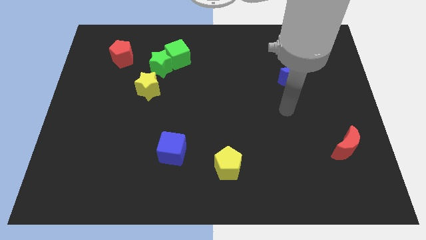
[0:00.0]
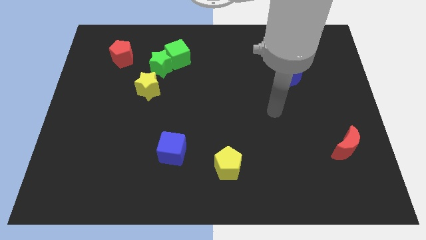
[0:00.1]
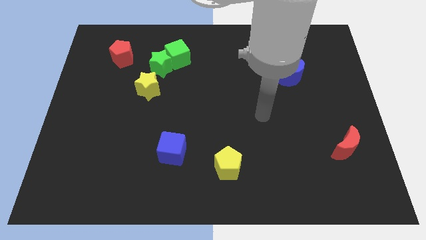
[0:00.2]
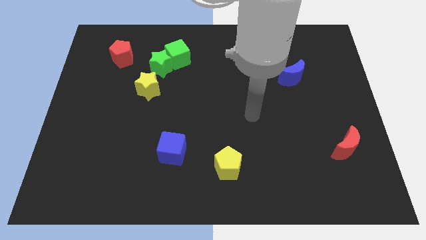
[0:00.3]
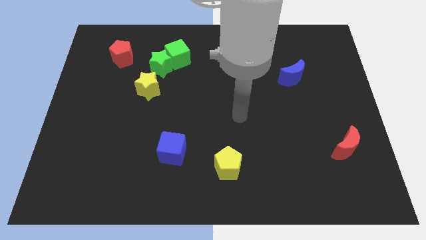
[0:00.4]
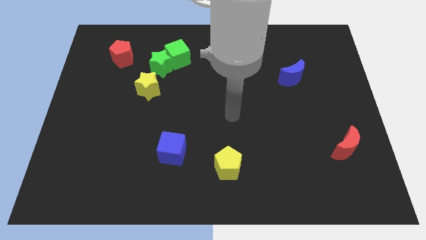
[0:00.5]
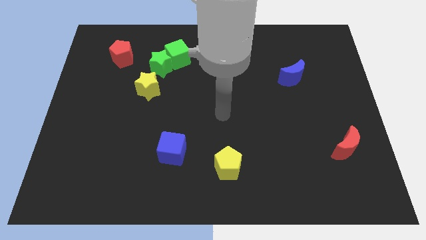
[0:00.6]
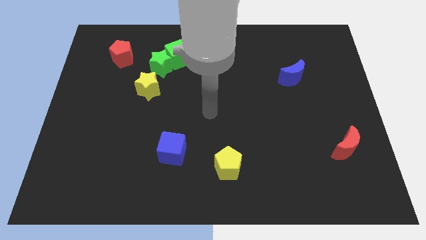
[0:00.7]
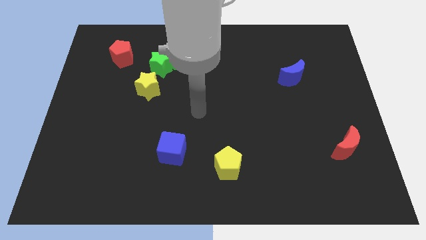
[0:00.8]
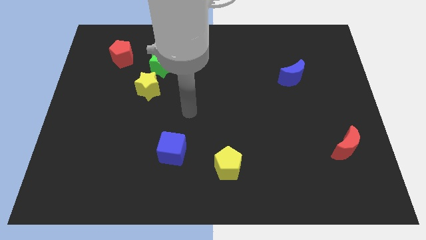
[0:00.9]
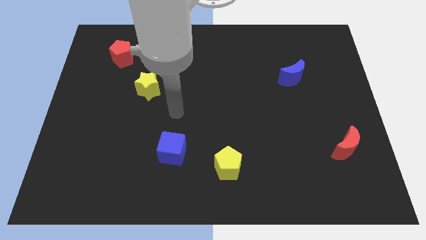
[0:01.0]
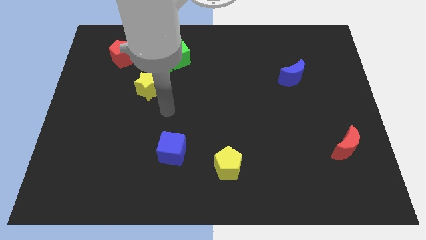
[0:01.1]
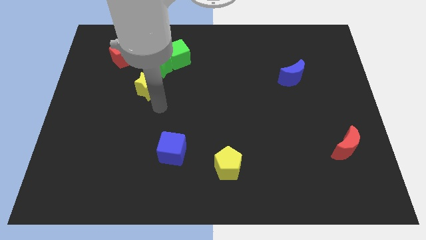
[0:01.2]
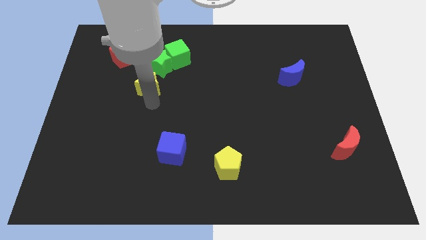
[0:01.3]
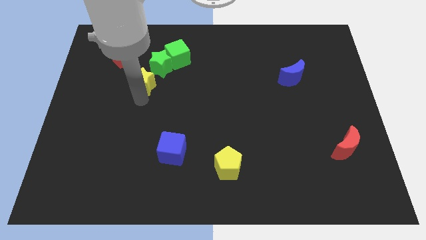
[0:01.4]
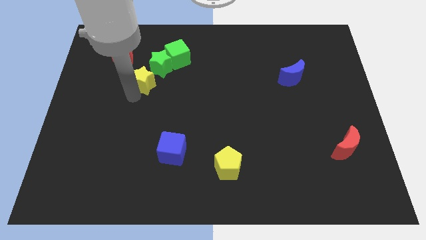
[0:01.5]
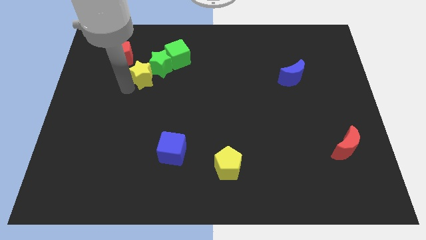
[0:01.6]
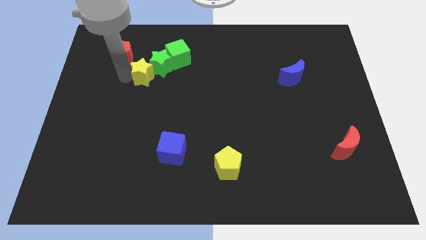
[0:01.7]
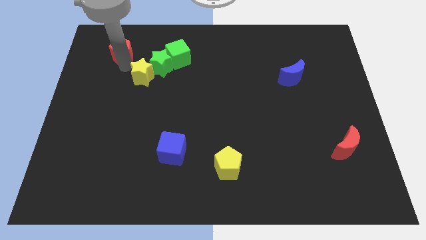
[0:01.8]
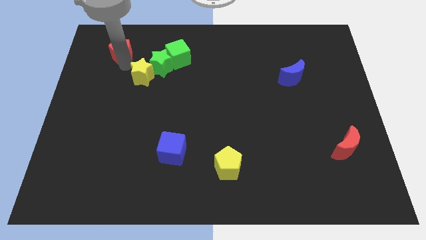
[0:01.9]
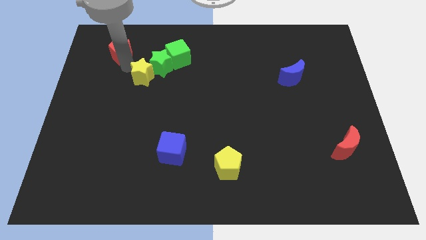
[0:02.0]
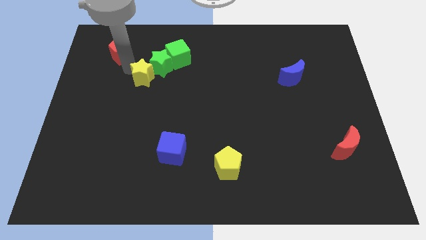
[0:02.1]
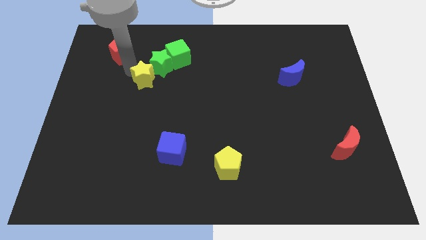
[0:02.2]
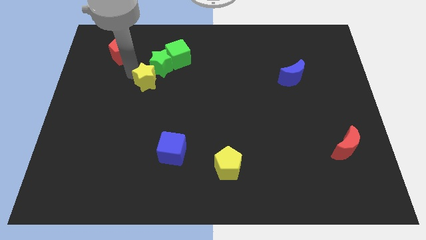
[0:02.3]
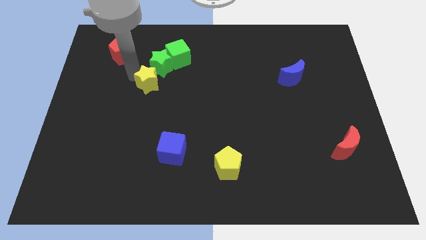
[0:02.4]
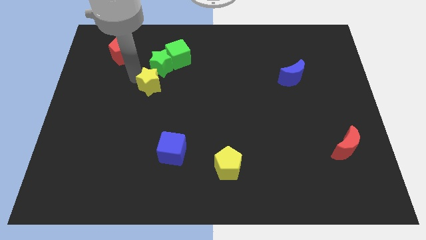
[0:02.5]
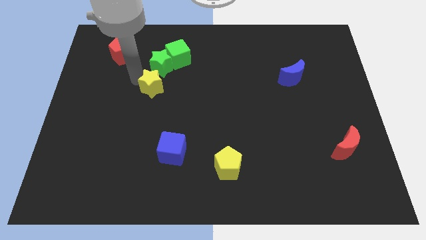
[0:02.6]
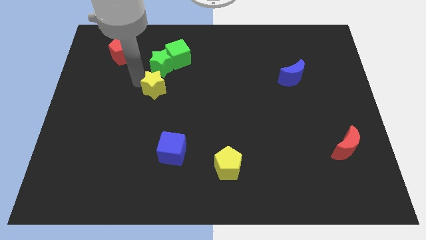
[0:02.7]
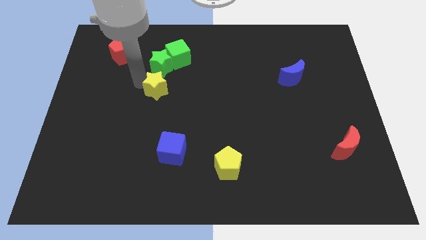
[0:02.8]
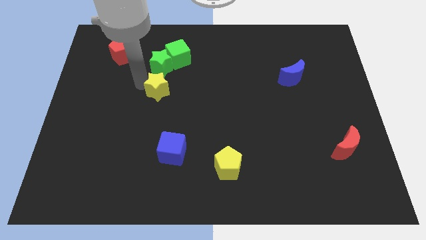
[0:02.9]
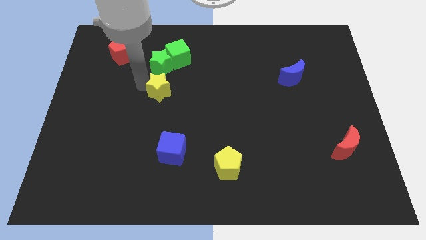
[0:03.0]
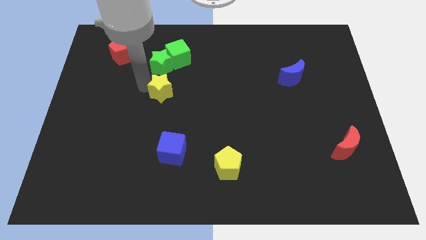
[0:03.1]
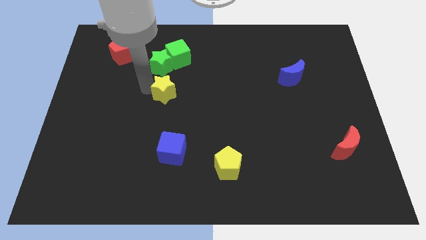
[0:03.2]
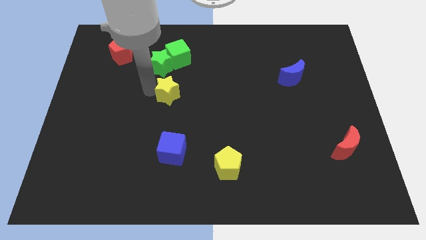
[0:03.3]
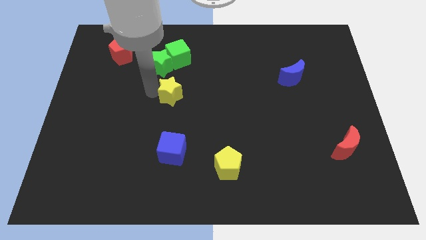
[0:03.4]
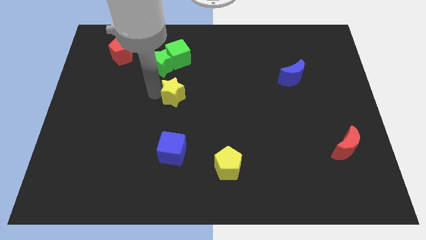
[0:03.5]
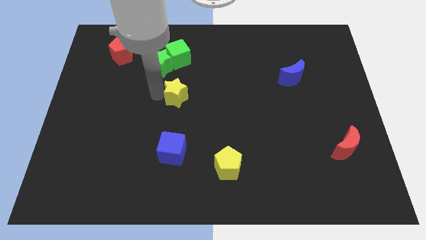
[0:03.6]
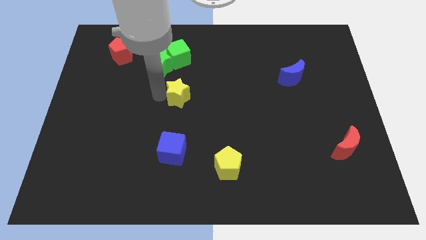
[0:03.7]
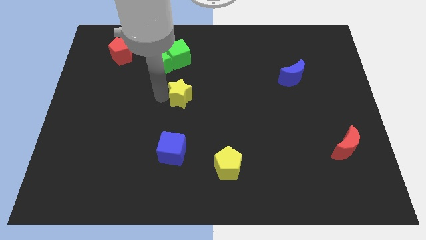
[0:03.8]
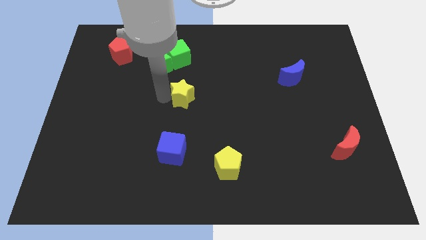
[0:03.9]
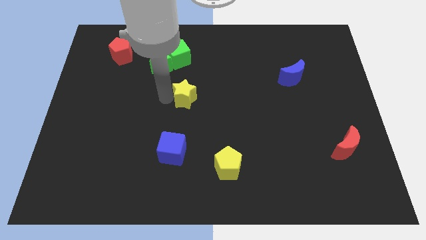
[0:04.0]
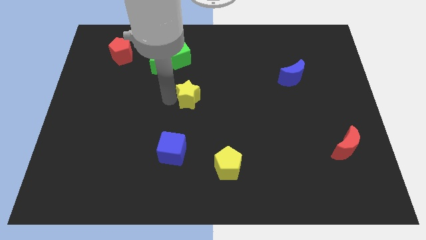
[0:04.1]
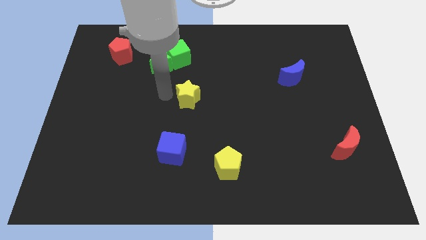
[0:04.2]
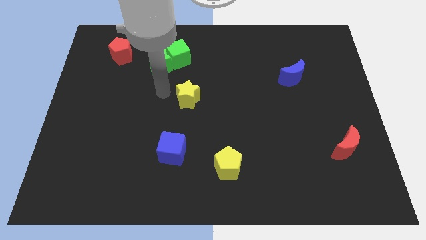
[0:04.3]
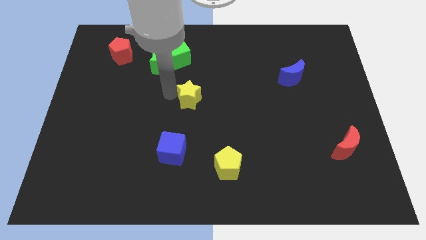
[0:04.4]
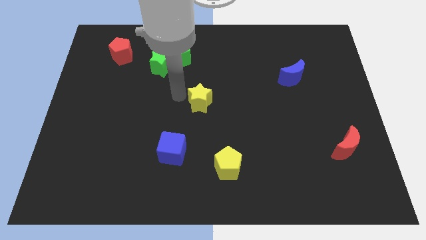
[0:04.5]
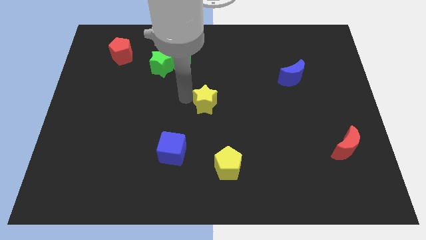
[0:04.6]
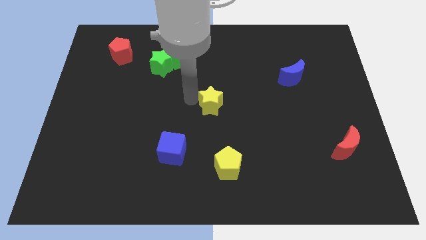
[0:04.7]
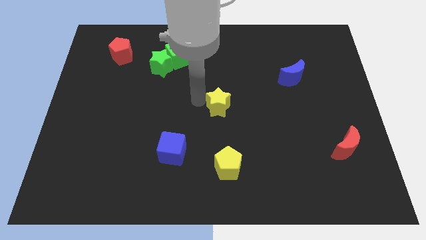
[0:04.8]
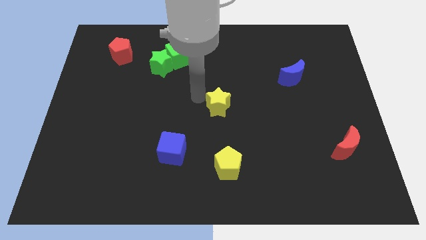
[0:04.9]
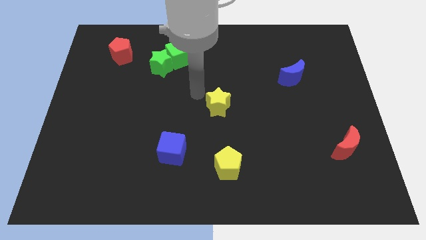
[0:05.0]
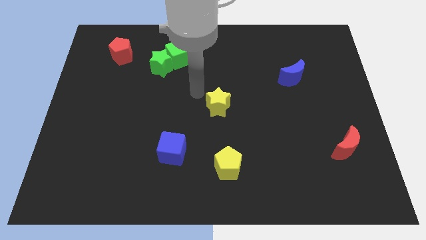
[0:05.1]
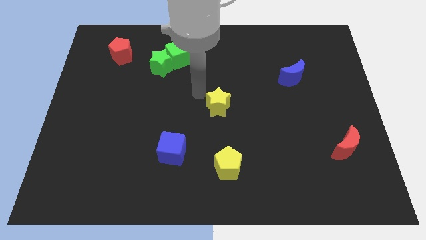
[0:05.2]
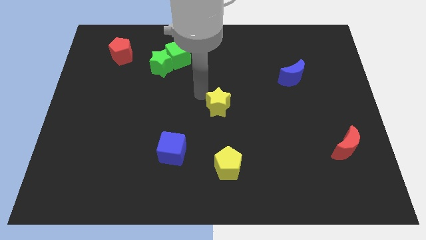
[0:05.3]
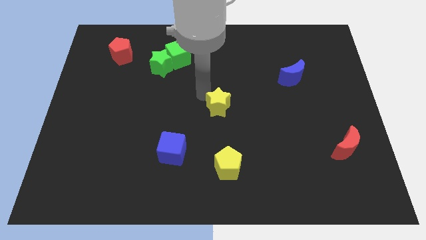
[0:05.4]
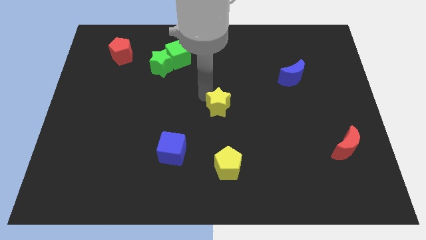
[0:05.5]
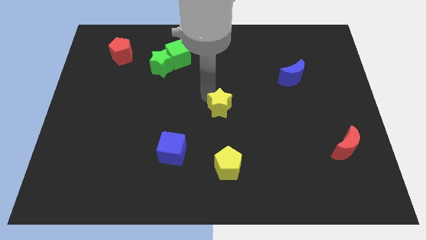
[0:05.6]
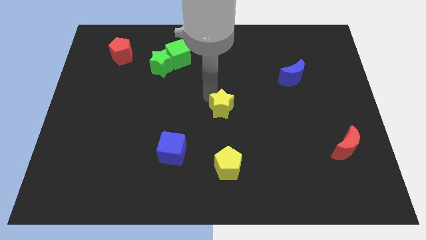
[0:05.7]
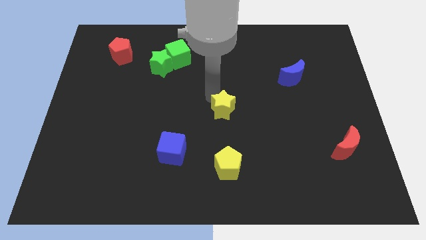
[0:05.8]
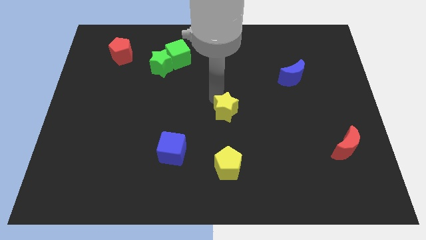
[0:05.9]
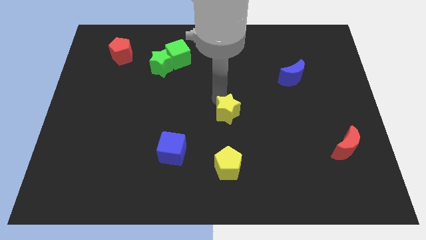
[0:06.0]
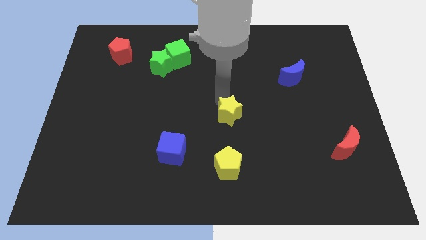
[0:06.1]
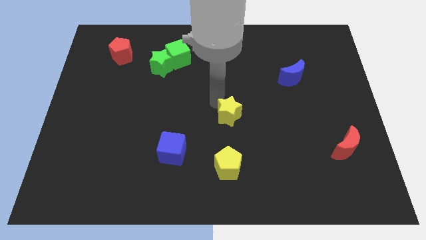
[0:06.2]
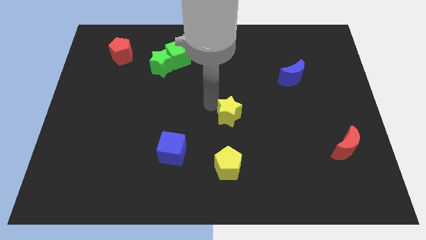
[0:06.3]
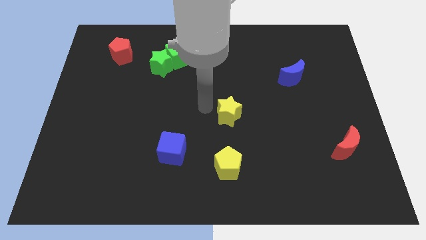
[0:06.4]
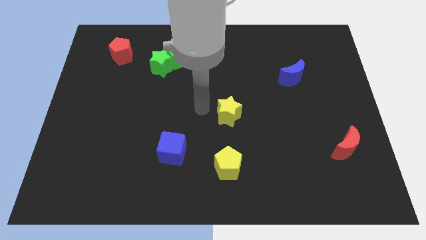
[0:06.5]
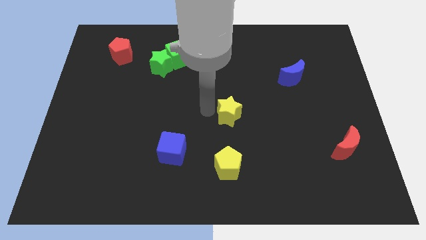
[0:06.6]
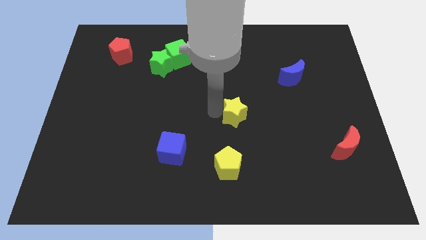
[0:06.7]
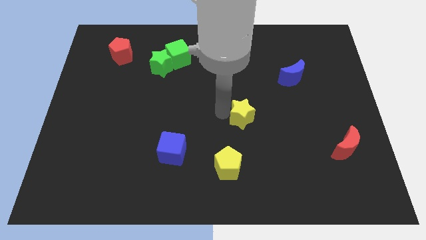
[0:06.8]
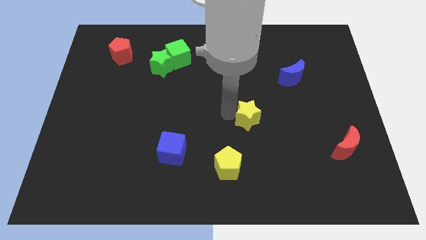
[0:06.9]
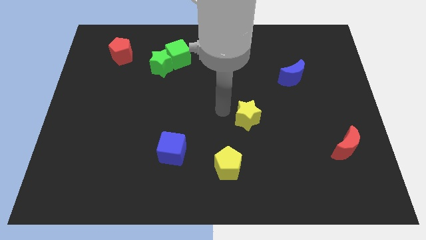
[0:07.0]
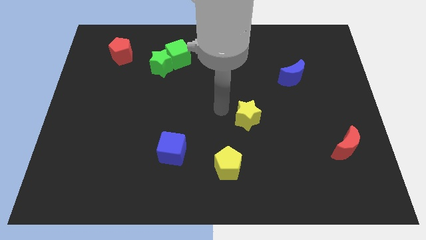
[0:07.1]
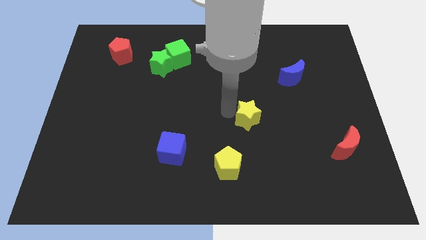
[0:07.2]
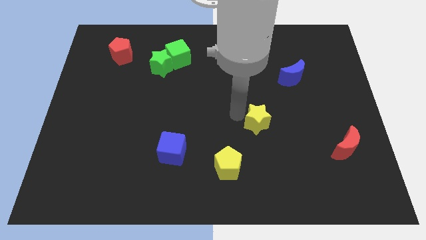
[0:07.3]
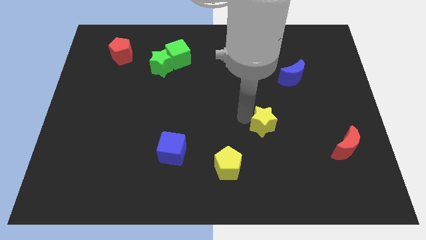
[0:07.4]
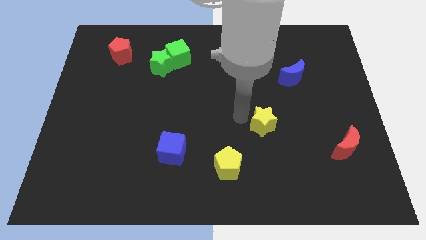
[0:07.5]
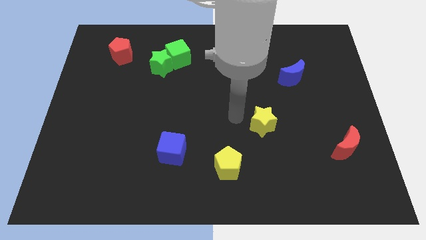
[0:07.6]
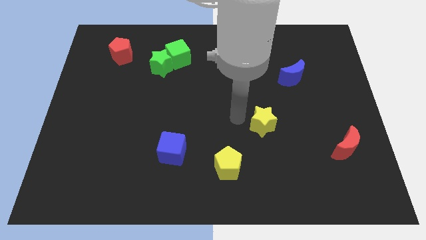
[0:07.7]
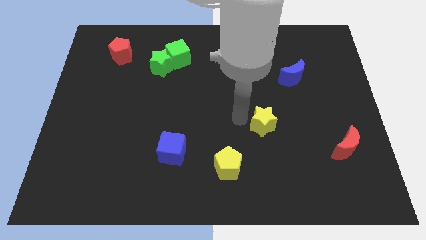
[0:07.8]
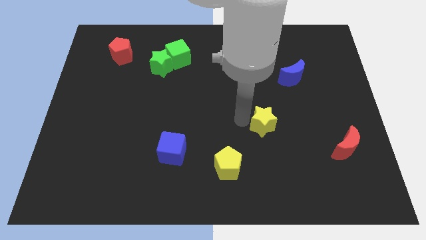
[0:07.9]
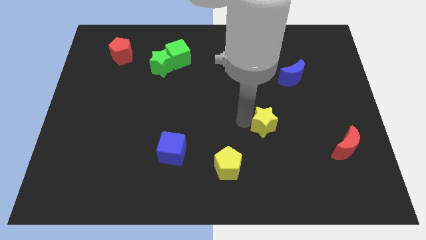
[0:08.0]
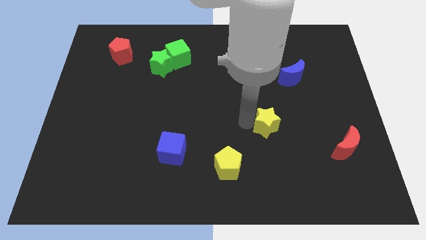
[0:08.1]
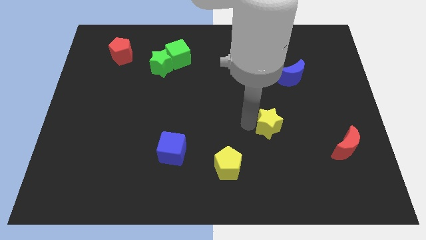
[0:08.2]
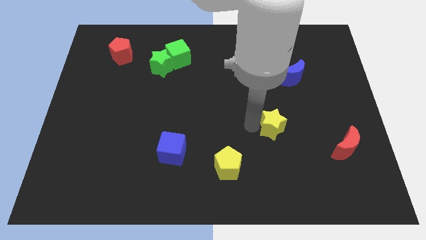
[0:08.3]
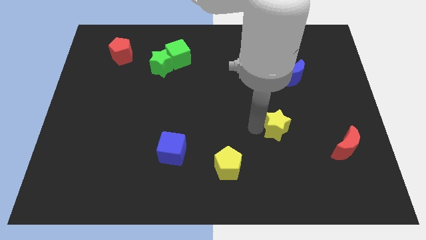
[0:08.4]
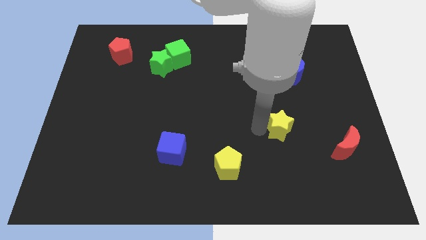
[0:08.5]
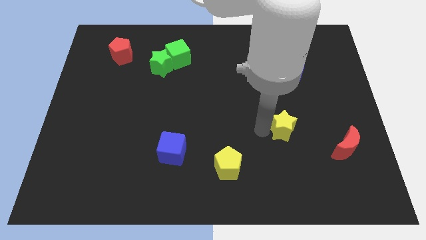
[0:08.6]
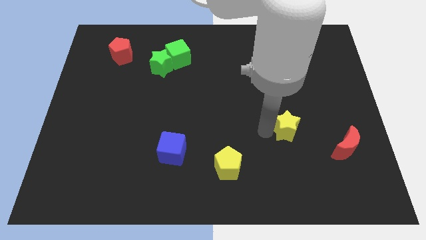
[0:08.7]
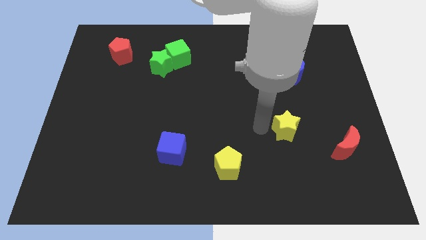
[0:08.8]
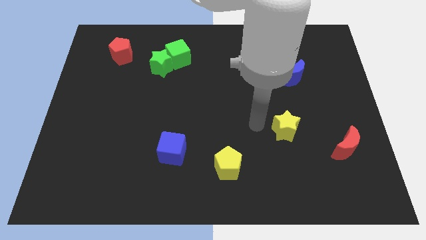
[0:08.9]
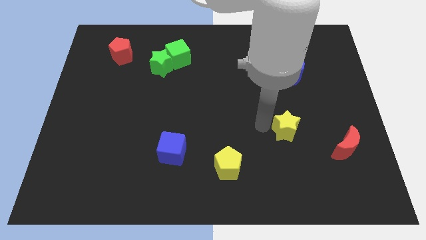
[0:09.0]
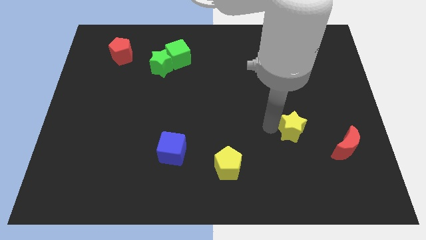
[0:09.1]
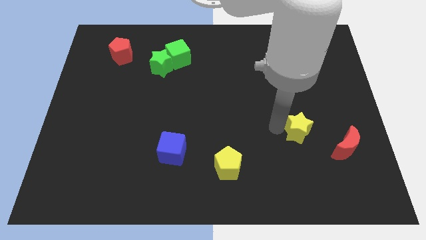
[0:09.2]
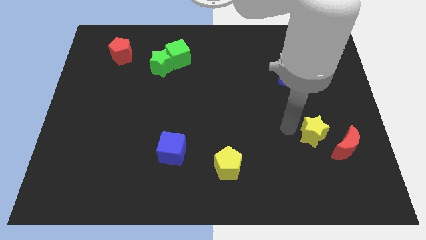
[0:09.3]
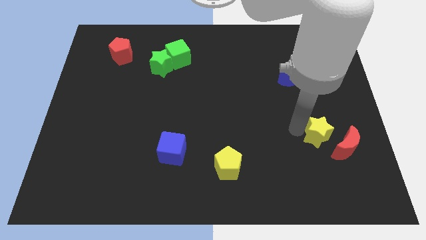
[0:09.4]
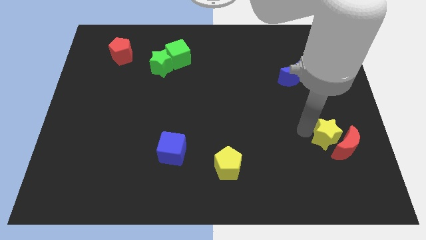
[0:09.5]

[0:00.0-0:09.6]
put the yellow star close to the red moon
